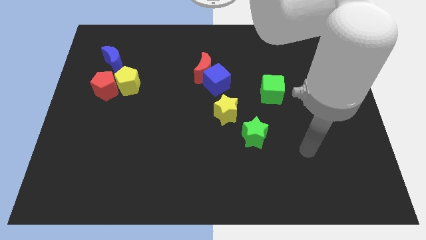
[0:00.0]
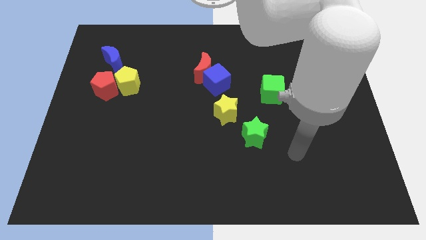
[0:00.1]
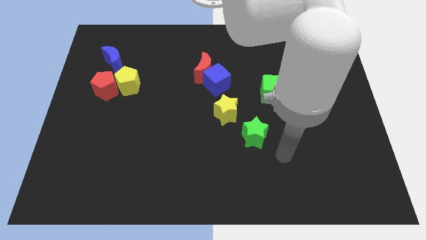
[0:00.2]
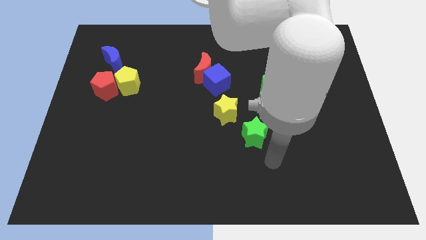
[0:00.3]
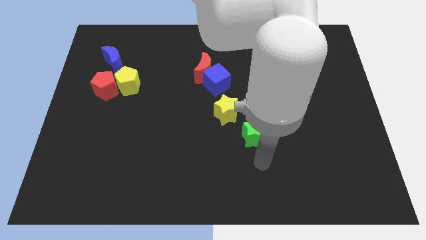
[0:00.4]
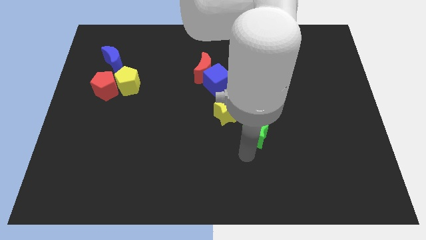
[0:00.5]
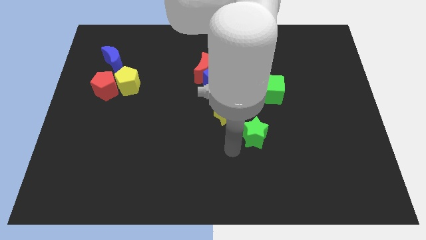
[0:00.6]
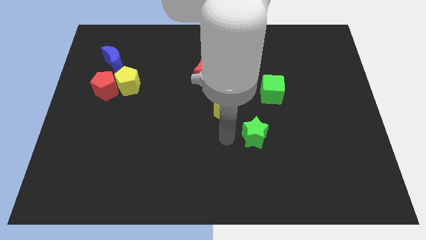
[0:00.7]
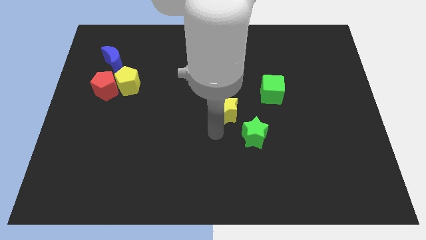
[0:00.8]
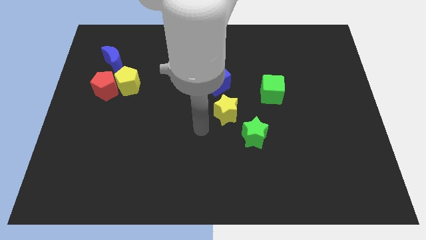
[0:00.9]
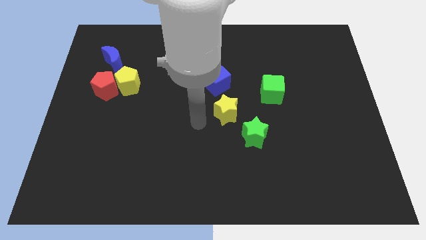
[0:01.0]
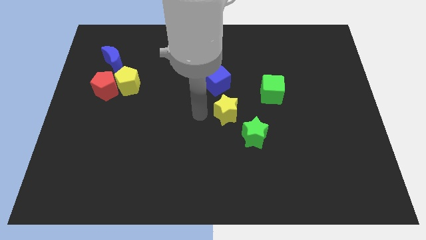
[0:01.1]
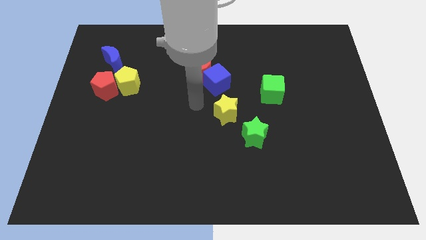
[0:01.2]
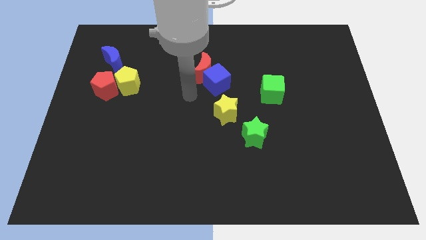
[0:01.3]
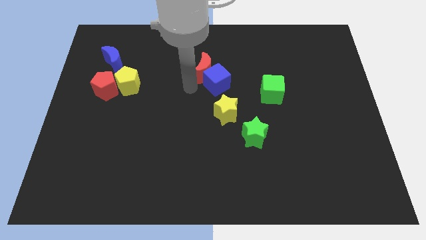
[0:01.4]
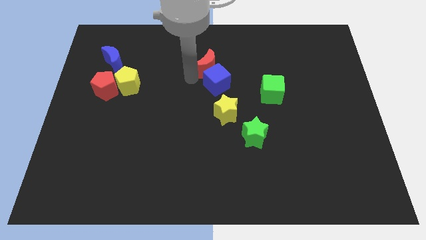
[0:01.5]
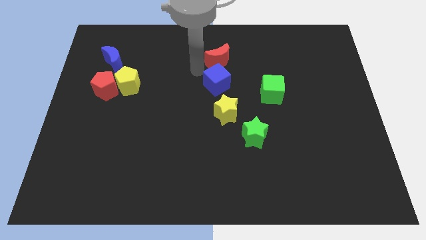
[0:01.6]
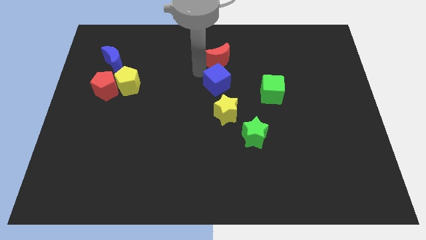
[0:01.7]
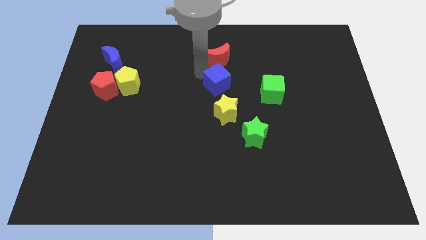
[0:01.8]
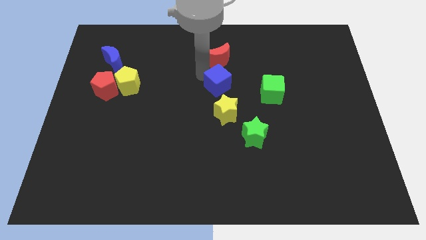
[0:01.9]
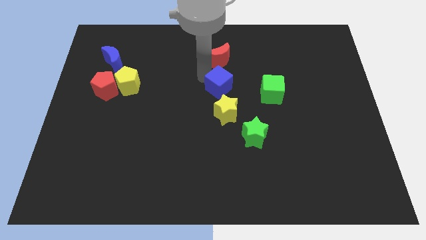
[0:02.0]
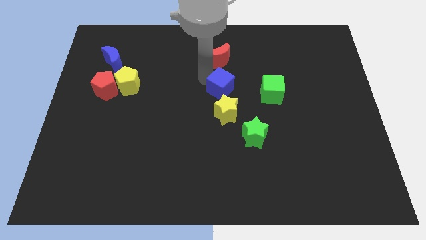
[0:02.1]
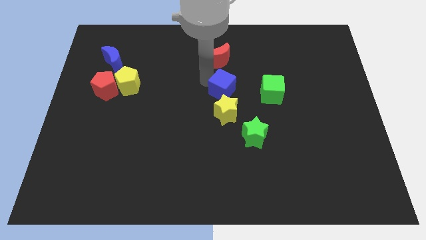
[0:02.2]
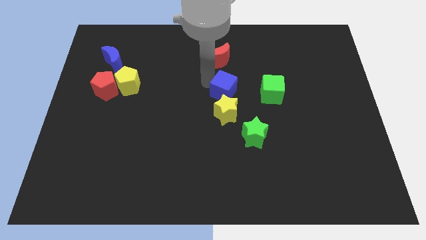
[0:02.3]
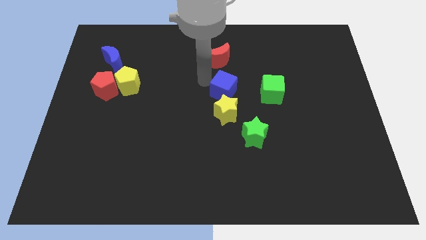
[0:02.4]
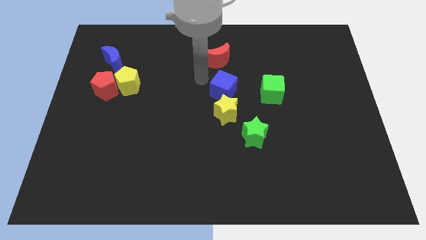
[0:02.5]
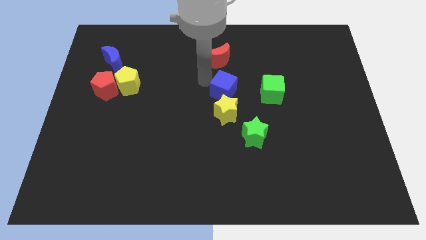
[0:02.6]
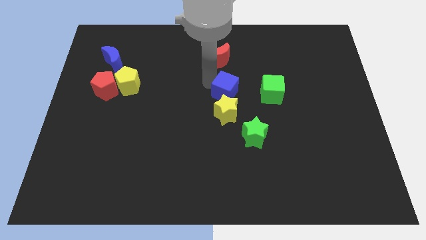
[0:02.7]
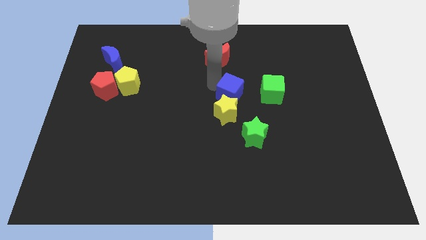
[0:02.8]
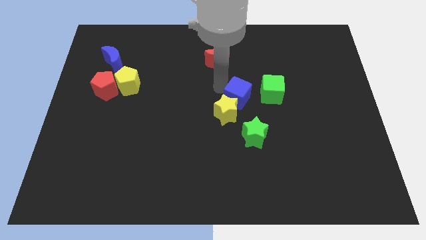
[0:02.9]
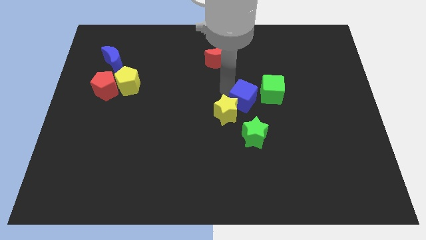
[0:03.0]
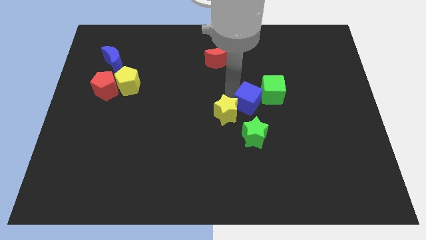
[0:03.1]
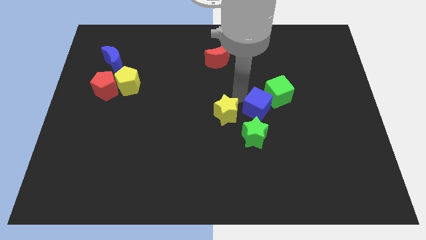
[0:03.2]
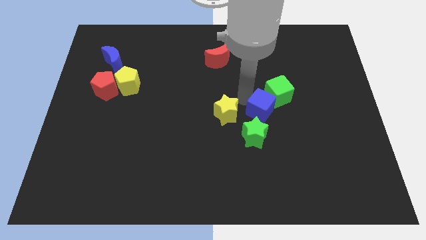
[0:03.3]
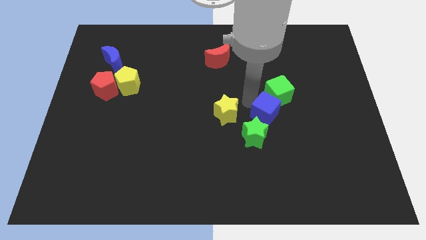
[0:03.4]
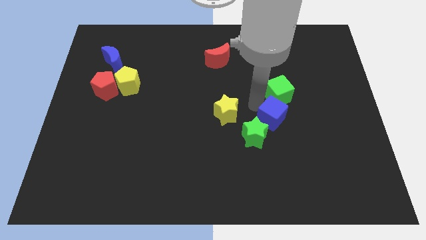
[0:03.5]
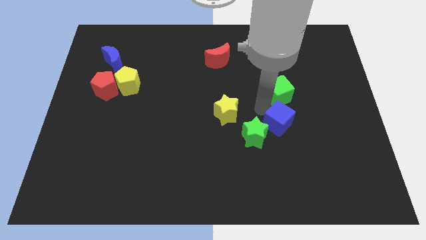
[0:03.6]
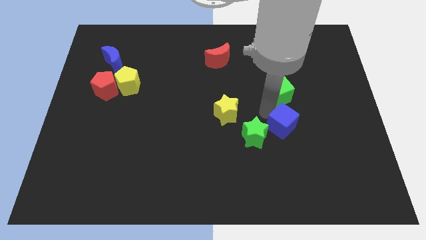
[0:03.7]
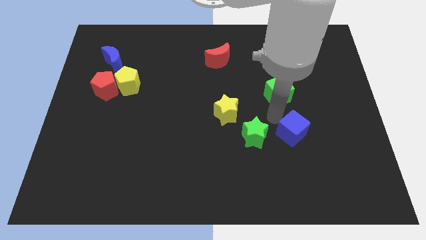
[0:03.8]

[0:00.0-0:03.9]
slide the blue cube diagonally down and to the right

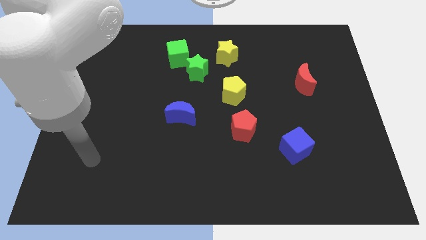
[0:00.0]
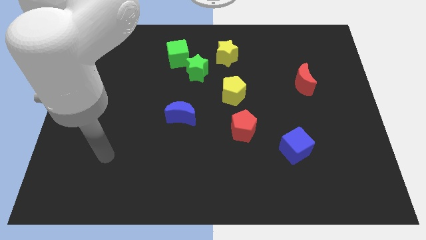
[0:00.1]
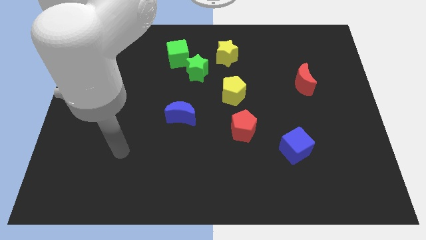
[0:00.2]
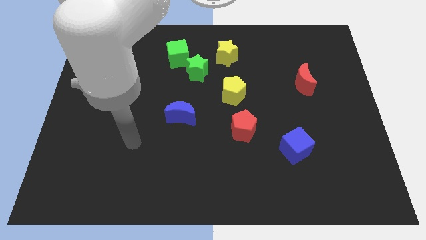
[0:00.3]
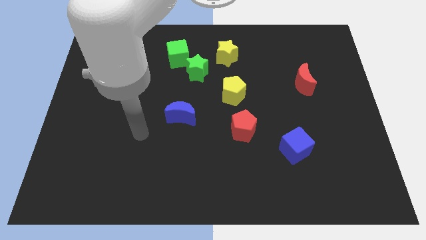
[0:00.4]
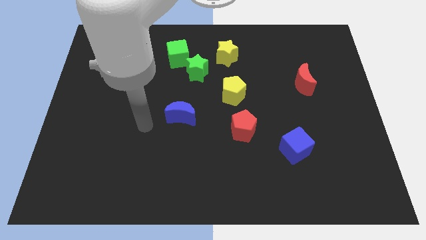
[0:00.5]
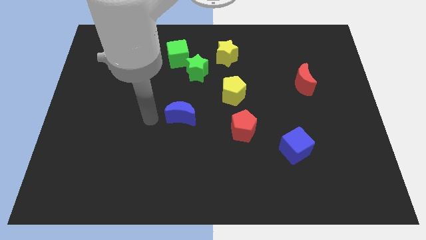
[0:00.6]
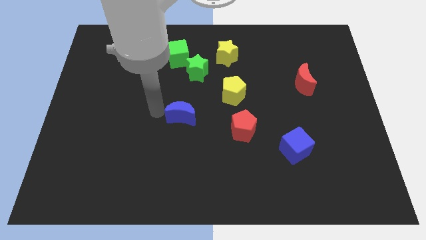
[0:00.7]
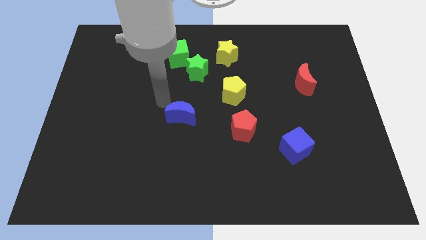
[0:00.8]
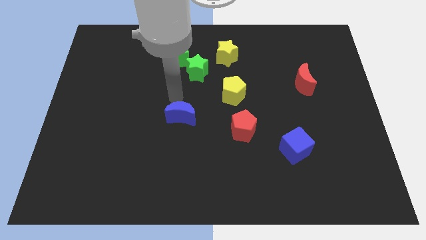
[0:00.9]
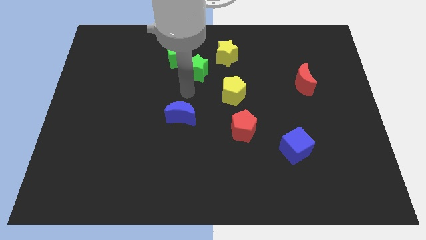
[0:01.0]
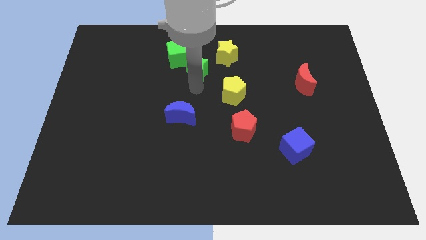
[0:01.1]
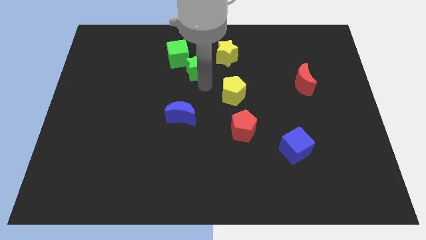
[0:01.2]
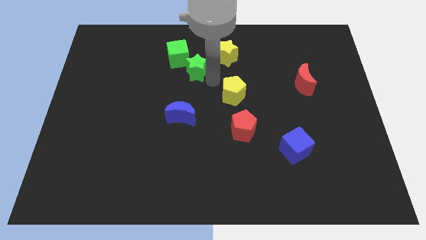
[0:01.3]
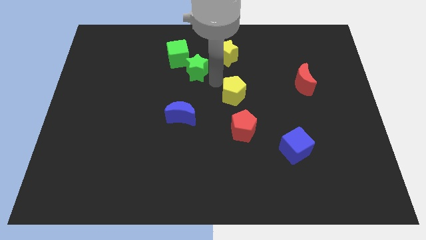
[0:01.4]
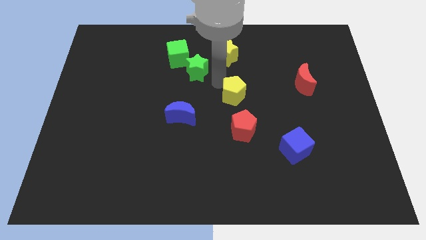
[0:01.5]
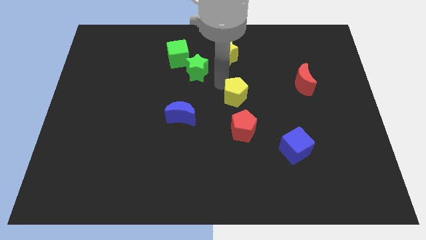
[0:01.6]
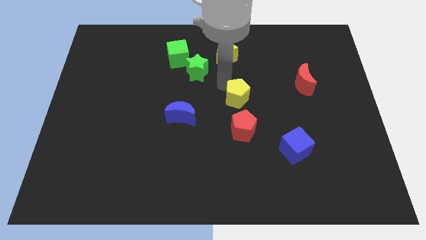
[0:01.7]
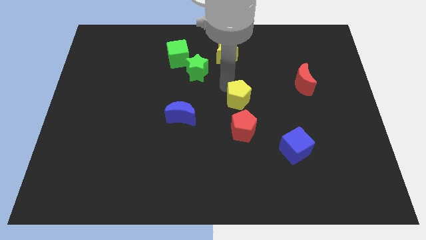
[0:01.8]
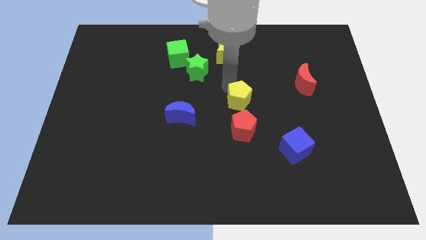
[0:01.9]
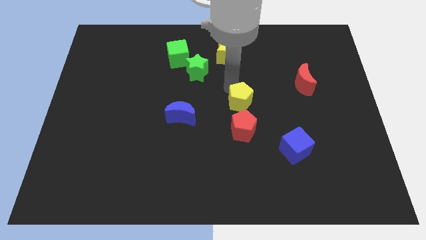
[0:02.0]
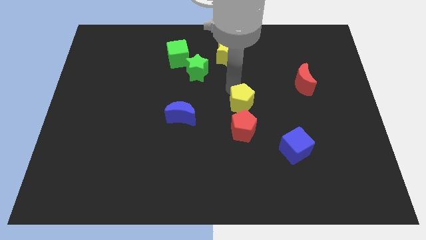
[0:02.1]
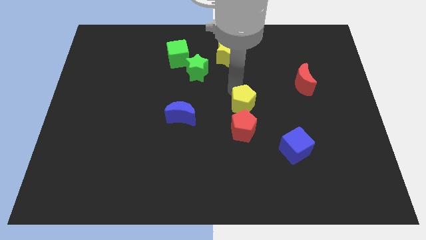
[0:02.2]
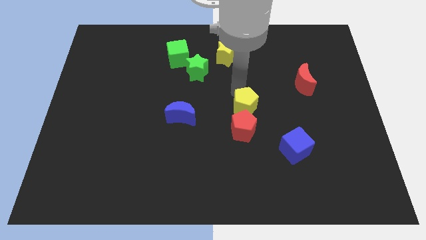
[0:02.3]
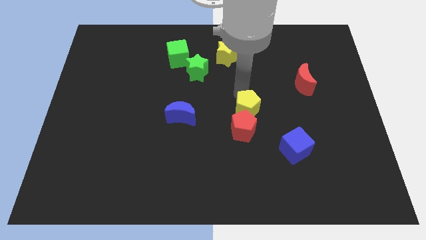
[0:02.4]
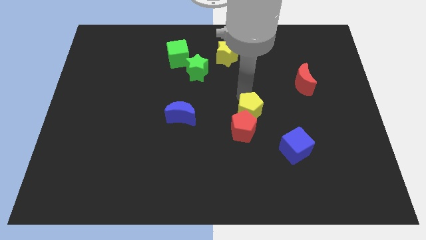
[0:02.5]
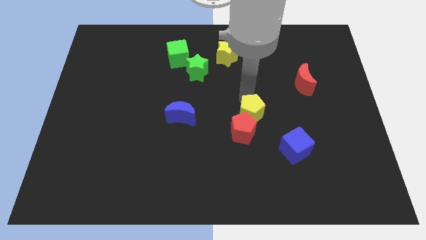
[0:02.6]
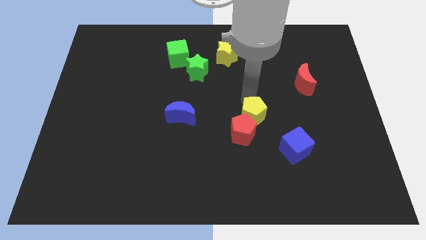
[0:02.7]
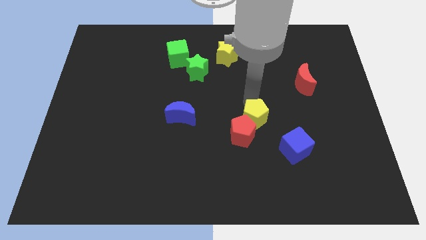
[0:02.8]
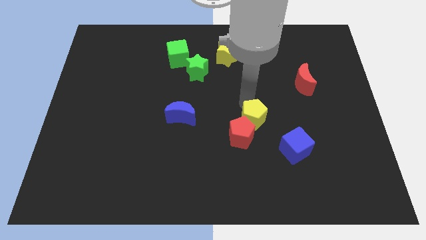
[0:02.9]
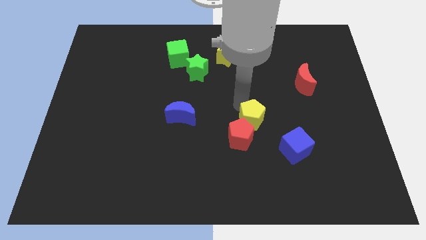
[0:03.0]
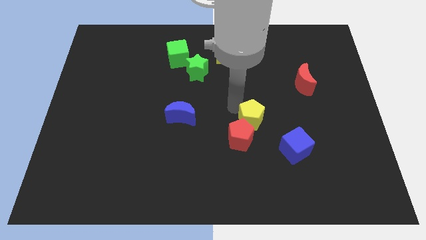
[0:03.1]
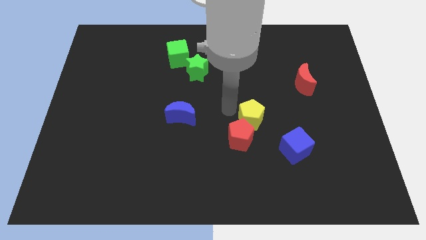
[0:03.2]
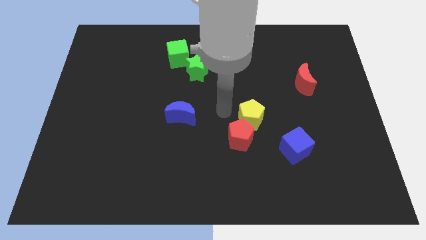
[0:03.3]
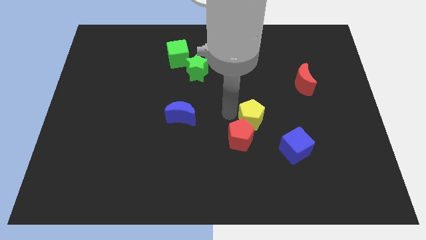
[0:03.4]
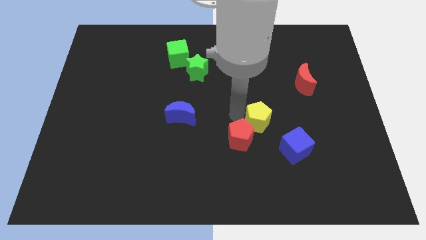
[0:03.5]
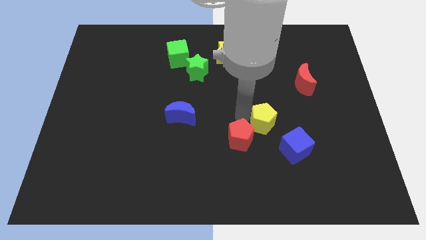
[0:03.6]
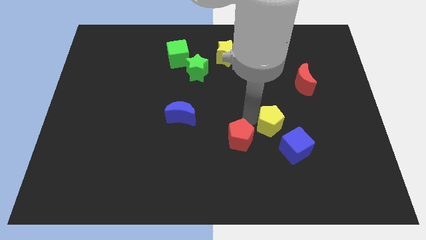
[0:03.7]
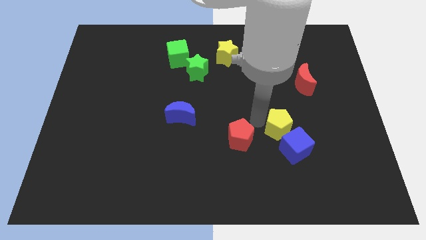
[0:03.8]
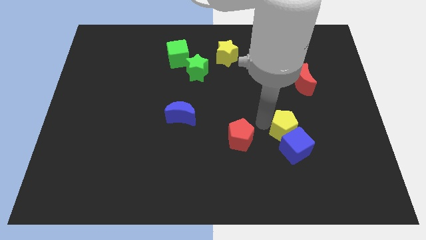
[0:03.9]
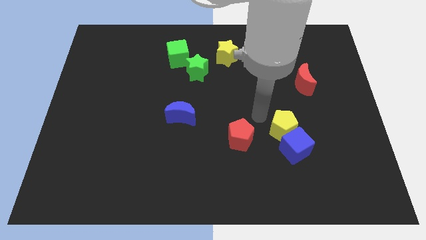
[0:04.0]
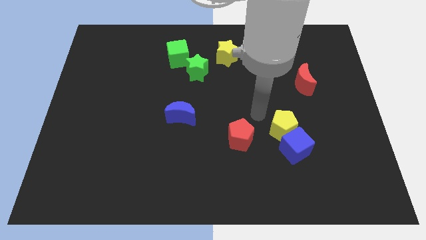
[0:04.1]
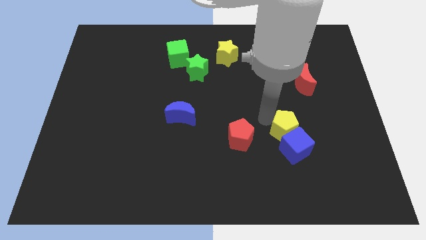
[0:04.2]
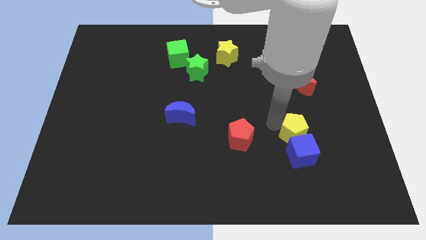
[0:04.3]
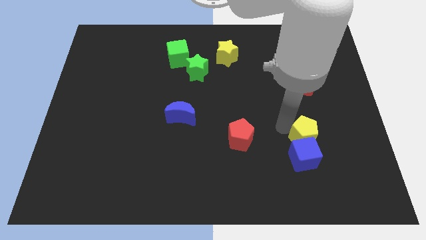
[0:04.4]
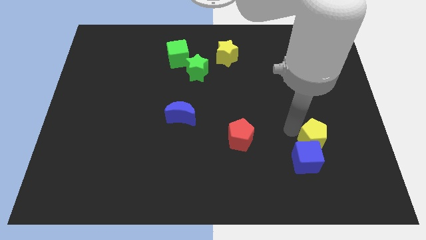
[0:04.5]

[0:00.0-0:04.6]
move the yellow pentagon downwards and right diagonally
